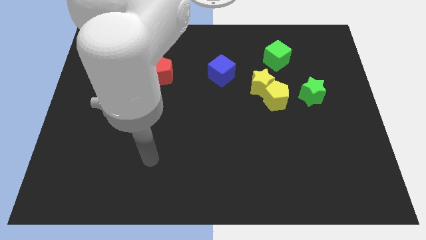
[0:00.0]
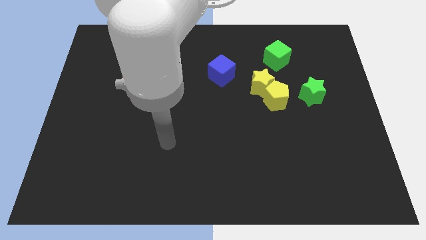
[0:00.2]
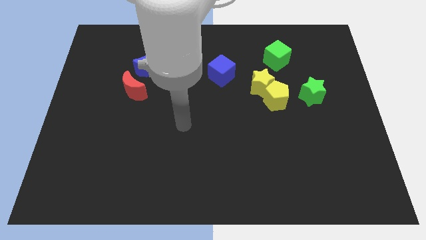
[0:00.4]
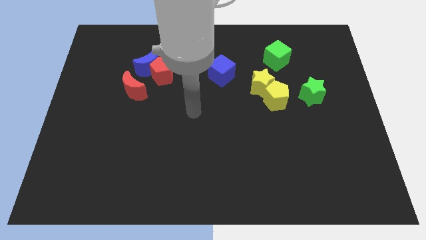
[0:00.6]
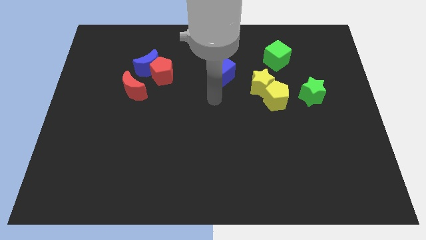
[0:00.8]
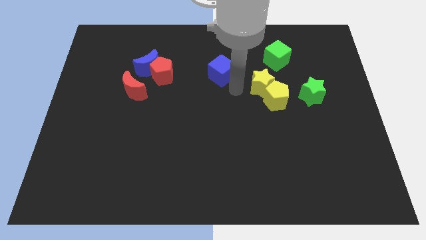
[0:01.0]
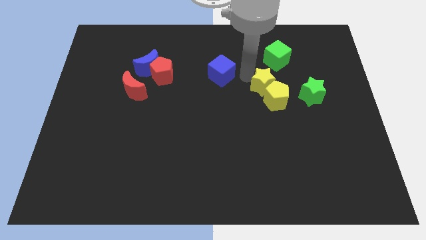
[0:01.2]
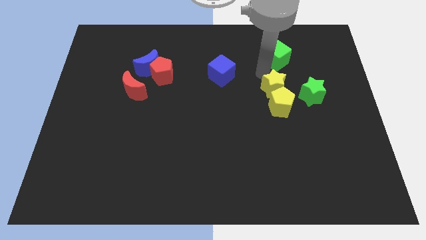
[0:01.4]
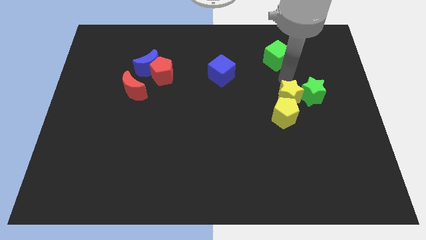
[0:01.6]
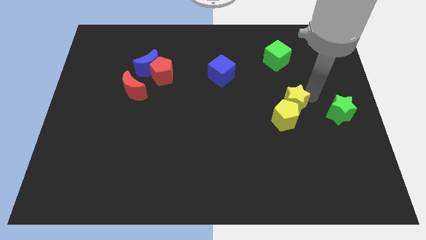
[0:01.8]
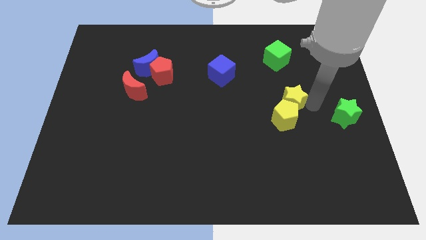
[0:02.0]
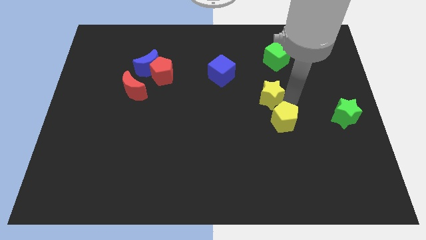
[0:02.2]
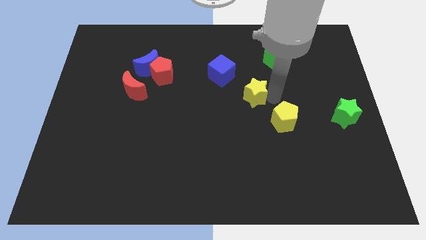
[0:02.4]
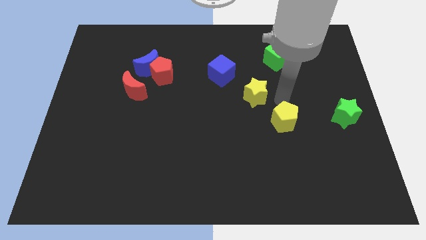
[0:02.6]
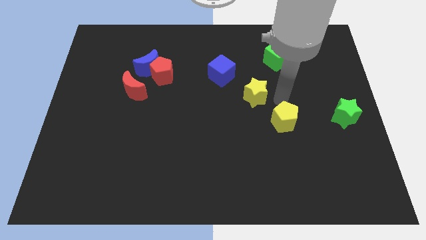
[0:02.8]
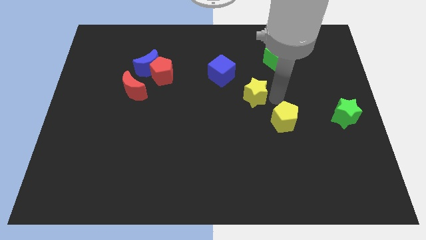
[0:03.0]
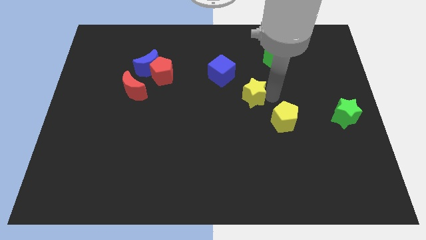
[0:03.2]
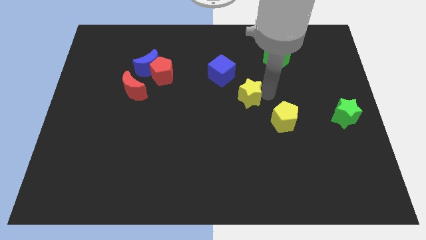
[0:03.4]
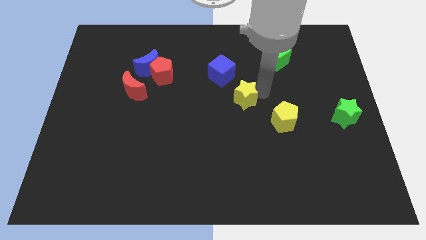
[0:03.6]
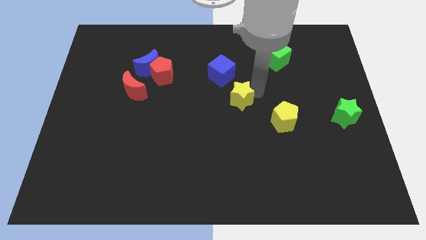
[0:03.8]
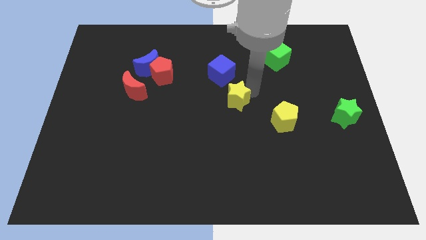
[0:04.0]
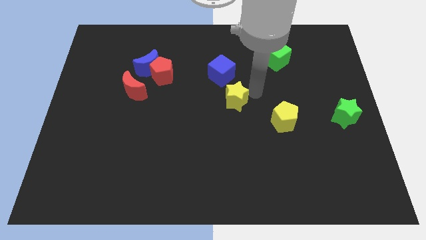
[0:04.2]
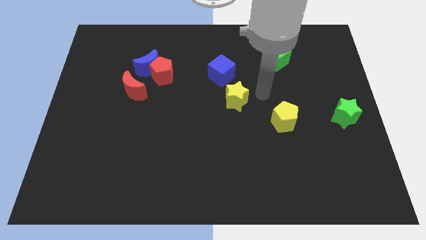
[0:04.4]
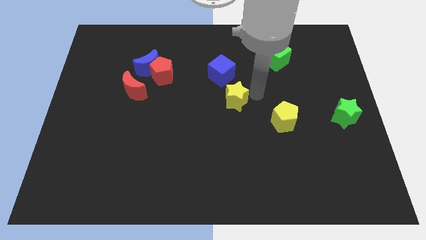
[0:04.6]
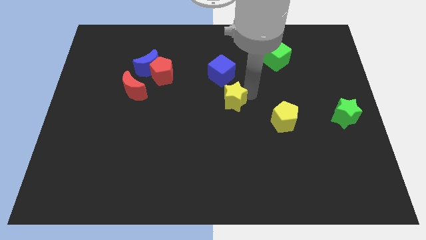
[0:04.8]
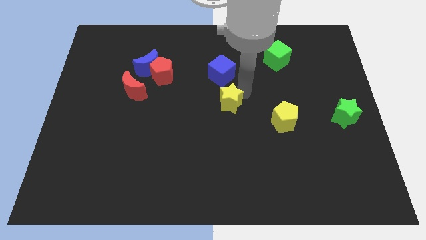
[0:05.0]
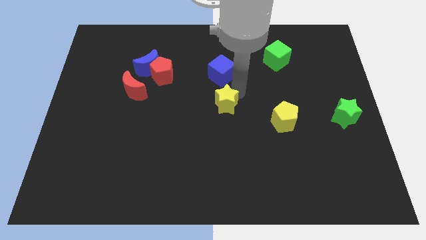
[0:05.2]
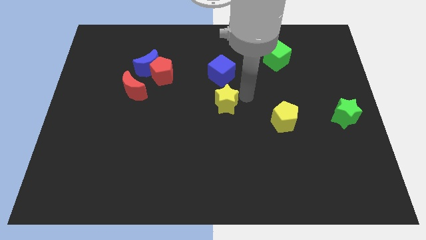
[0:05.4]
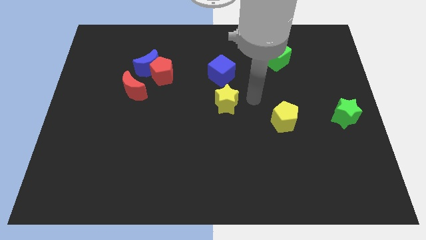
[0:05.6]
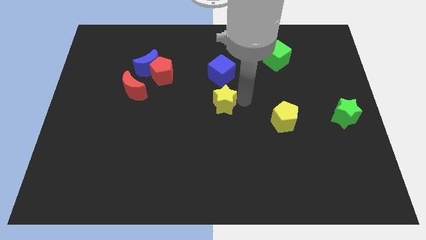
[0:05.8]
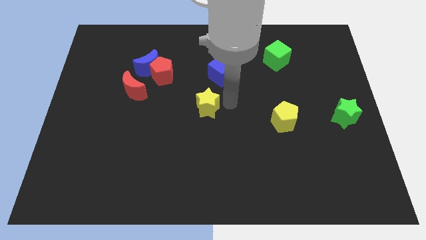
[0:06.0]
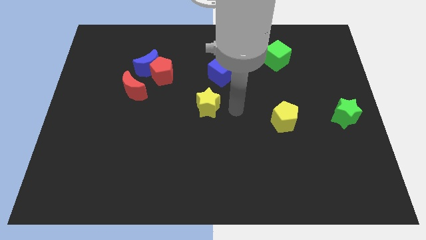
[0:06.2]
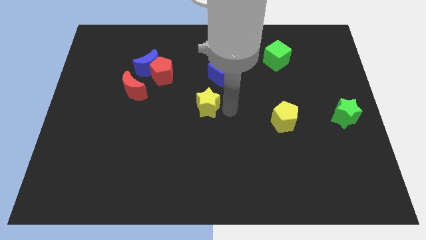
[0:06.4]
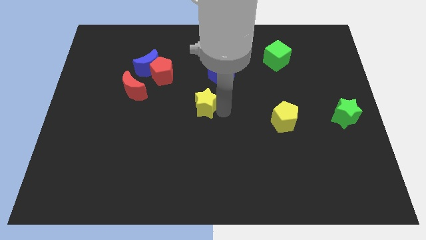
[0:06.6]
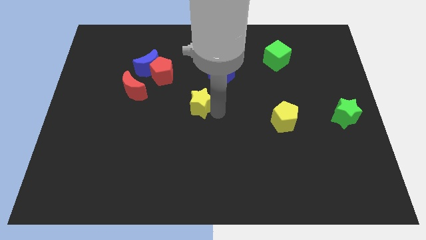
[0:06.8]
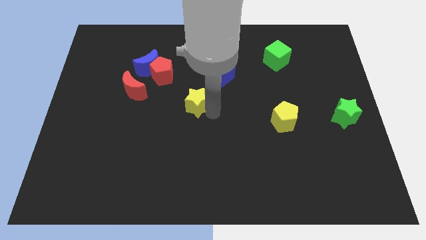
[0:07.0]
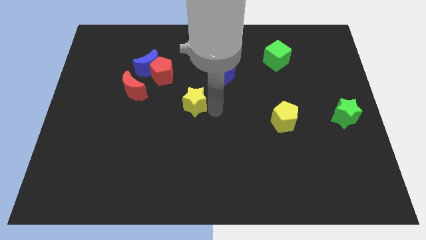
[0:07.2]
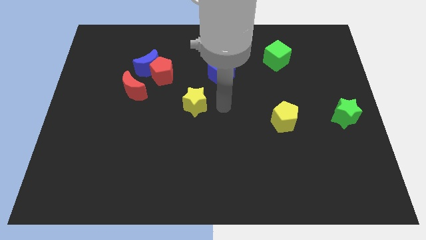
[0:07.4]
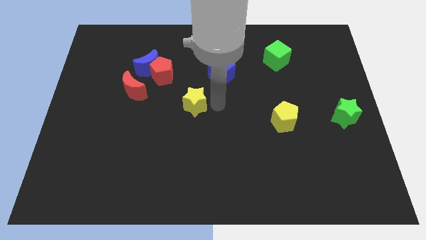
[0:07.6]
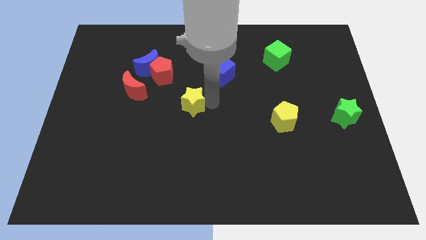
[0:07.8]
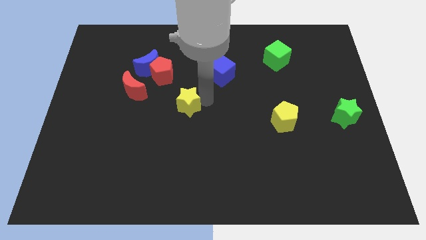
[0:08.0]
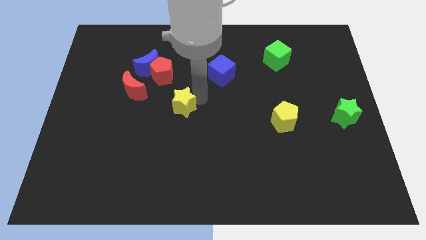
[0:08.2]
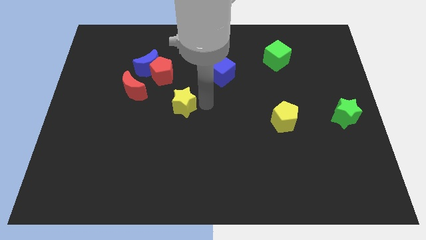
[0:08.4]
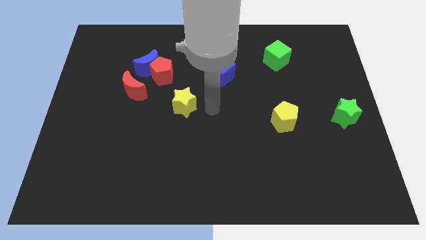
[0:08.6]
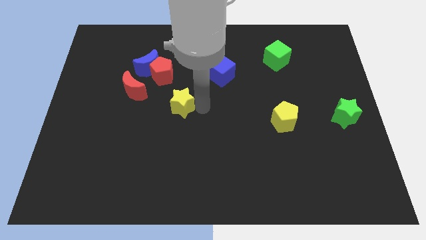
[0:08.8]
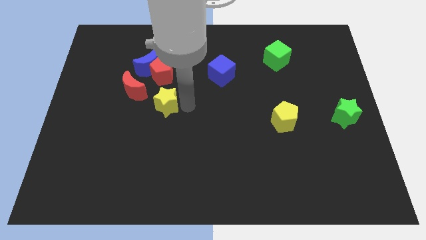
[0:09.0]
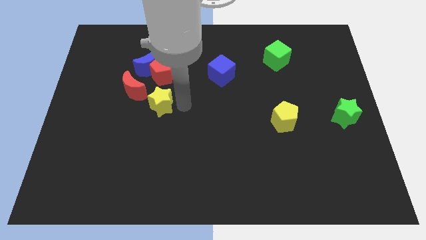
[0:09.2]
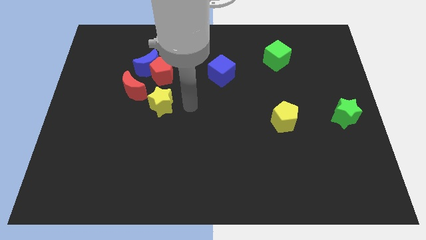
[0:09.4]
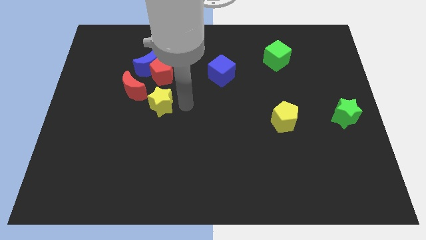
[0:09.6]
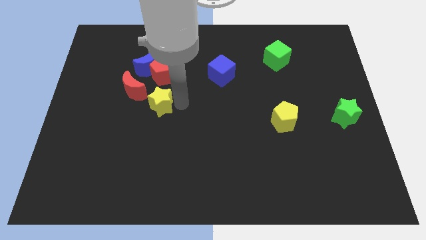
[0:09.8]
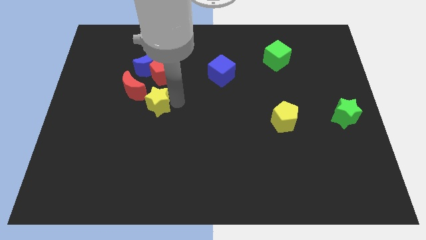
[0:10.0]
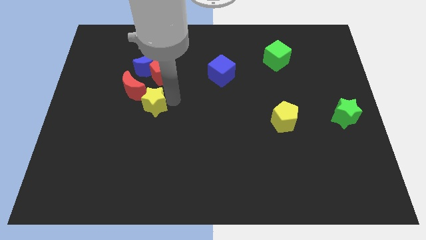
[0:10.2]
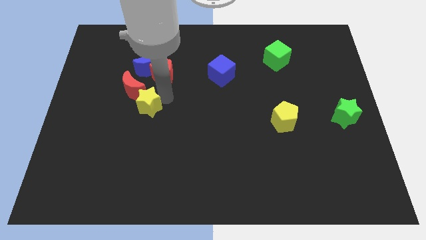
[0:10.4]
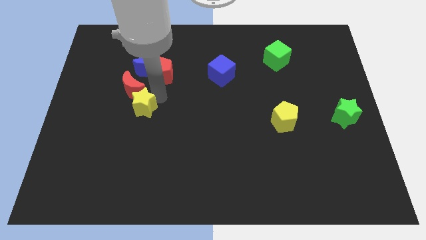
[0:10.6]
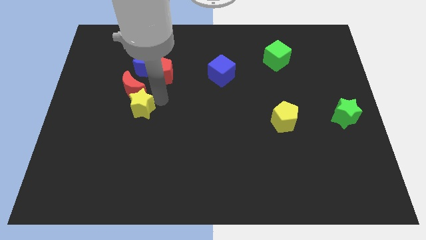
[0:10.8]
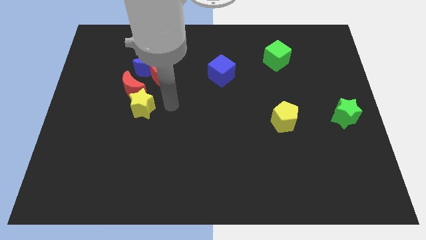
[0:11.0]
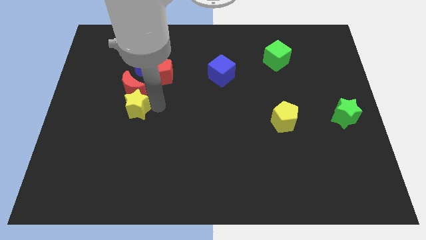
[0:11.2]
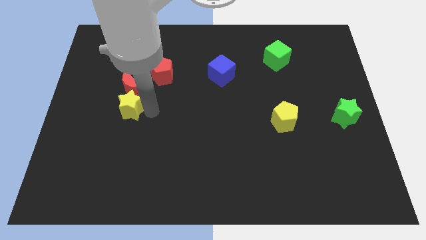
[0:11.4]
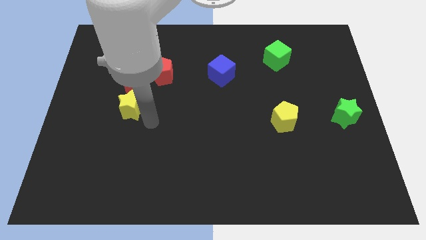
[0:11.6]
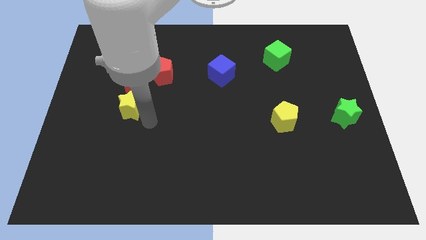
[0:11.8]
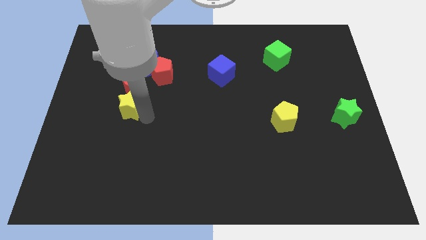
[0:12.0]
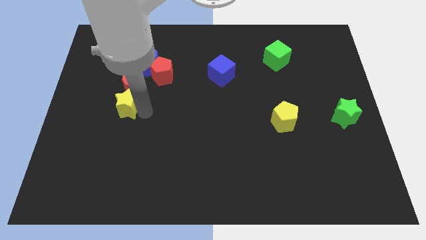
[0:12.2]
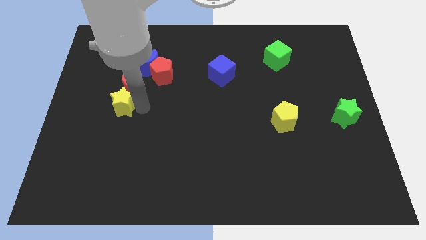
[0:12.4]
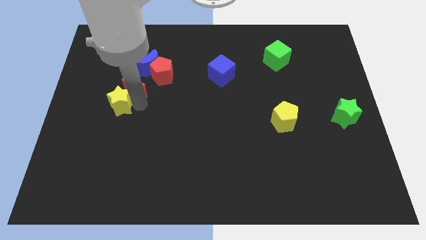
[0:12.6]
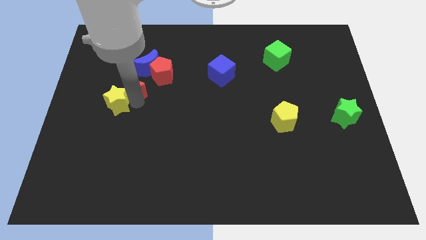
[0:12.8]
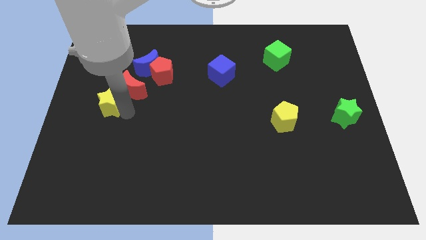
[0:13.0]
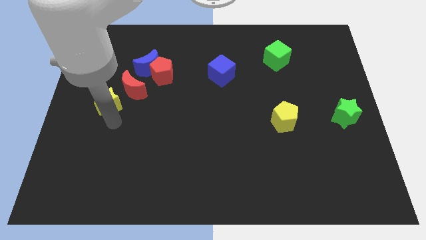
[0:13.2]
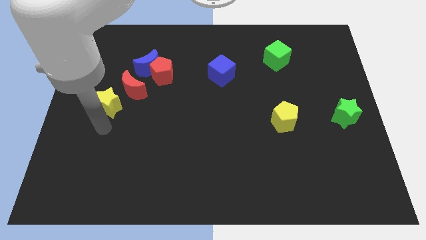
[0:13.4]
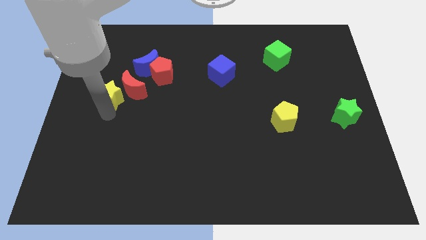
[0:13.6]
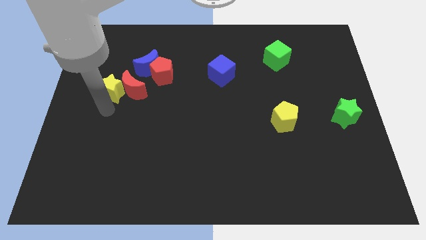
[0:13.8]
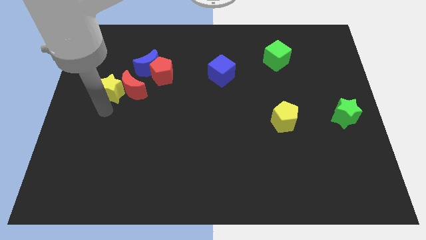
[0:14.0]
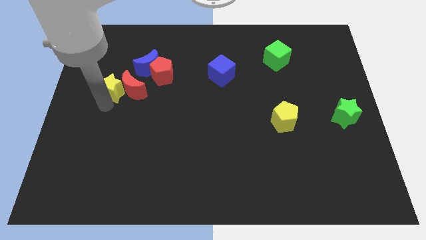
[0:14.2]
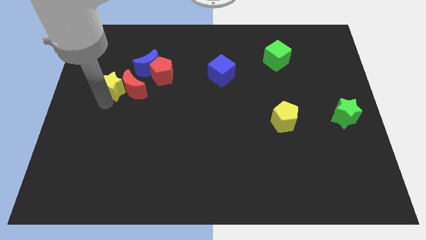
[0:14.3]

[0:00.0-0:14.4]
move the yellow star just left of the red pentagon
